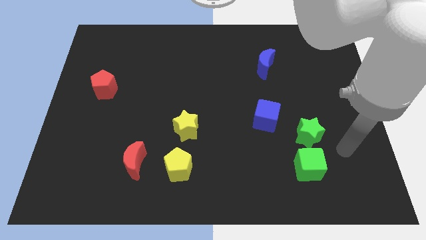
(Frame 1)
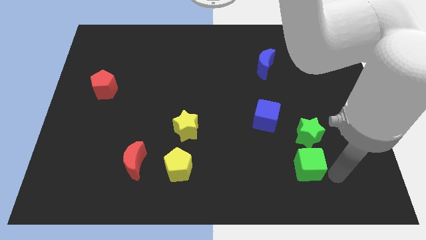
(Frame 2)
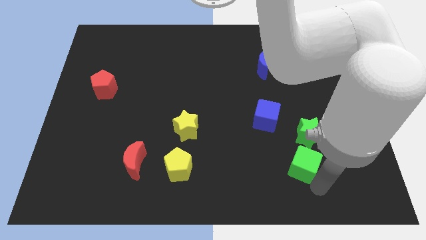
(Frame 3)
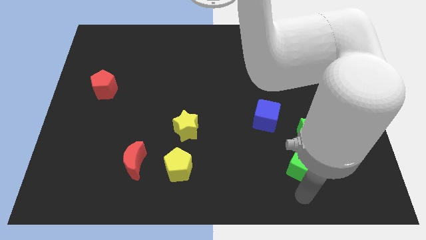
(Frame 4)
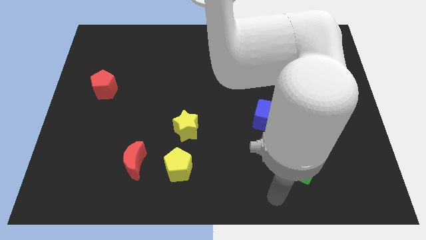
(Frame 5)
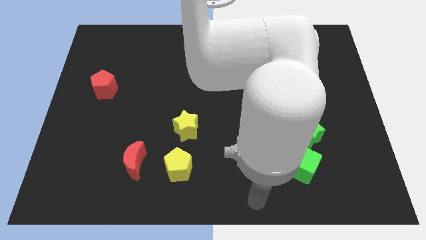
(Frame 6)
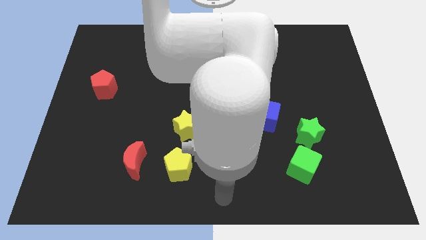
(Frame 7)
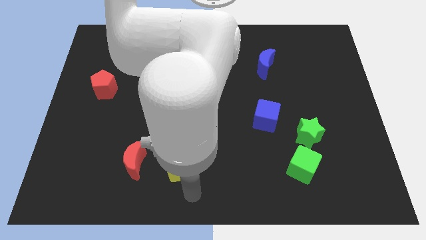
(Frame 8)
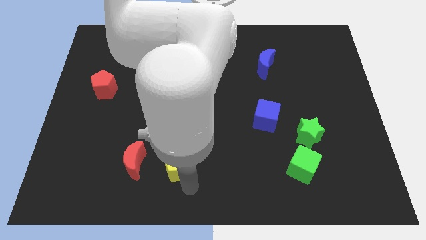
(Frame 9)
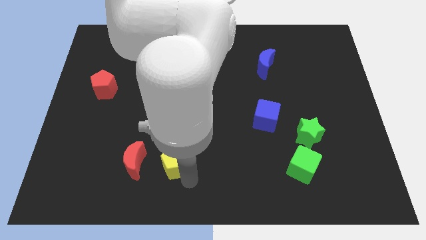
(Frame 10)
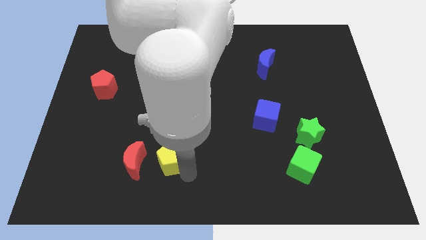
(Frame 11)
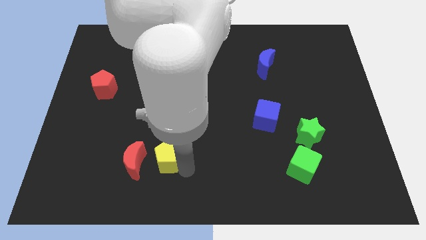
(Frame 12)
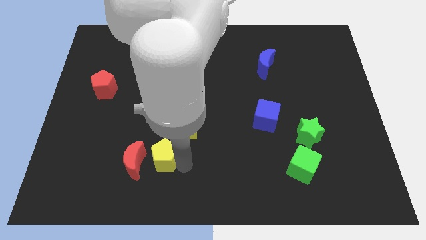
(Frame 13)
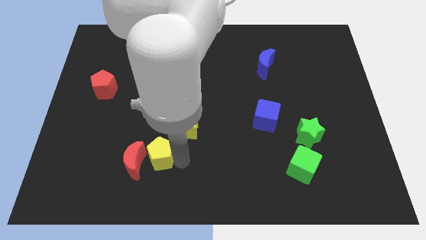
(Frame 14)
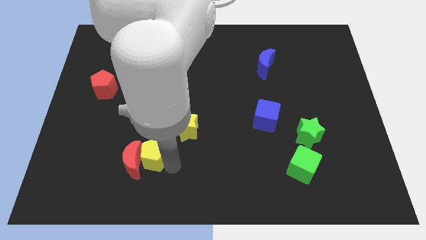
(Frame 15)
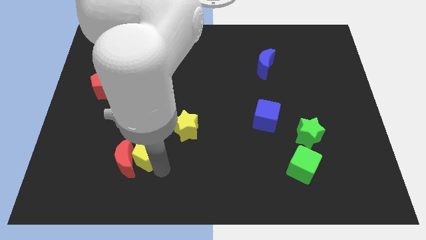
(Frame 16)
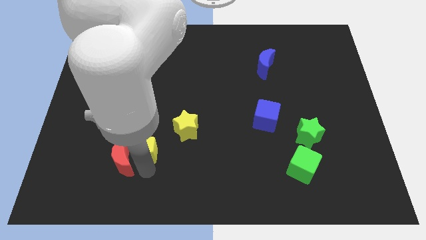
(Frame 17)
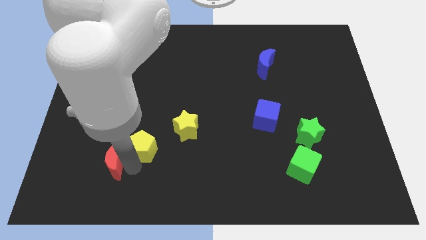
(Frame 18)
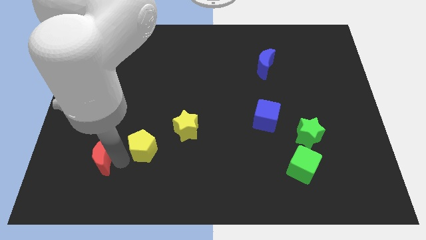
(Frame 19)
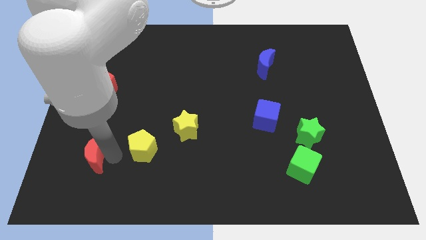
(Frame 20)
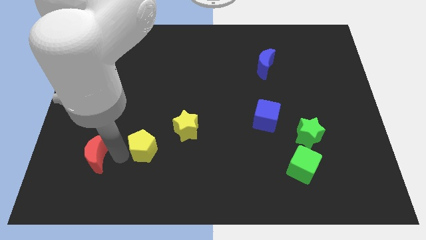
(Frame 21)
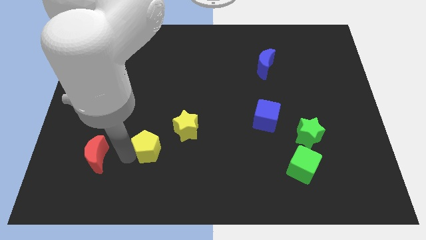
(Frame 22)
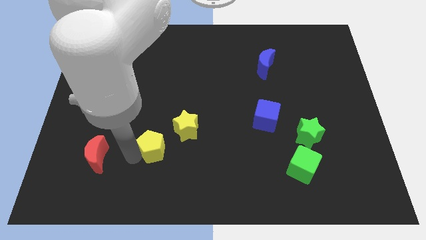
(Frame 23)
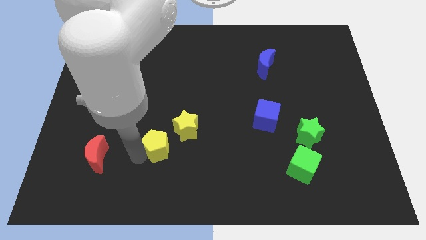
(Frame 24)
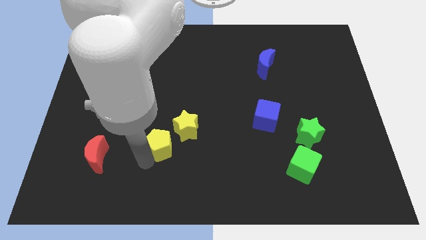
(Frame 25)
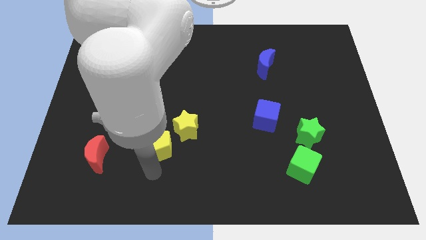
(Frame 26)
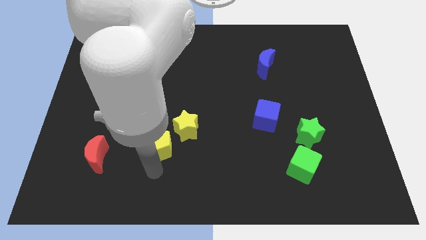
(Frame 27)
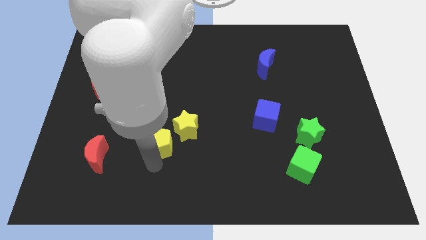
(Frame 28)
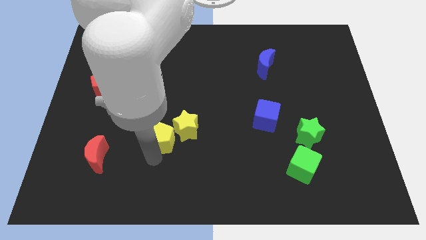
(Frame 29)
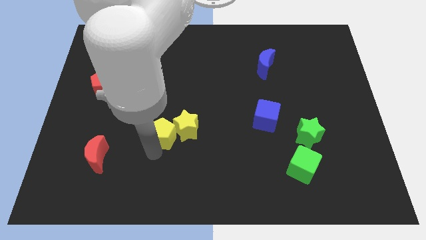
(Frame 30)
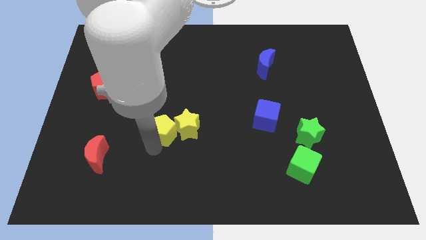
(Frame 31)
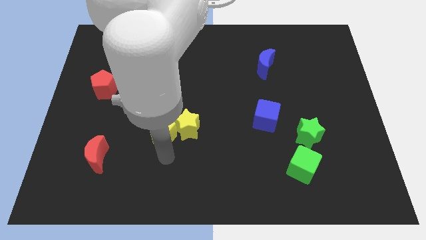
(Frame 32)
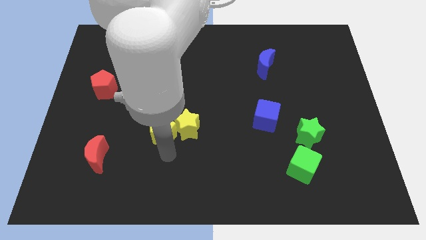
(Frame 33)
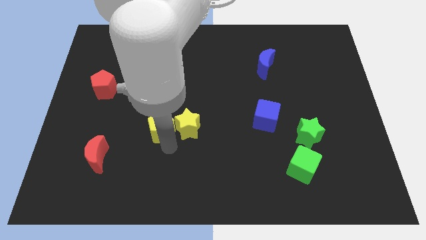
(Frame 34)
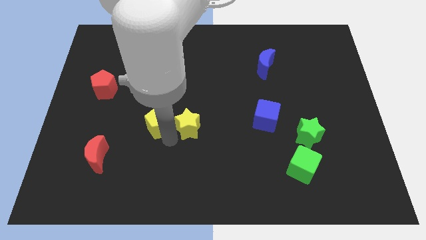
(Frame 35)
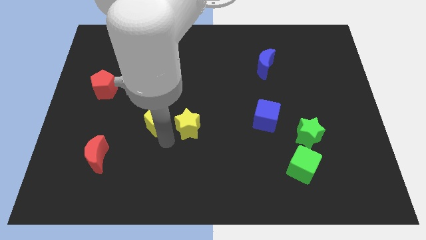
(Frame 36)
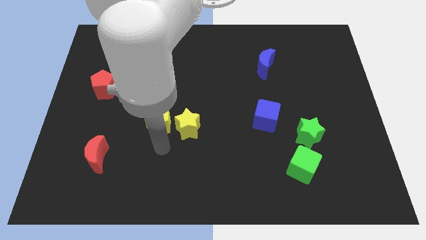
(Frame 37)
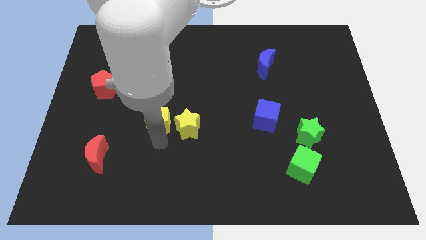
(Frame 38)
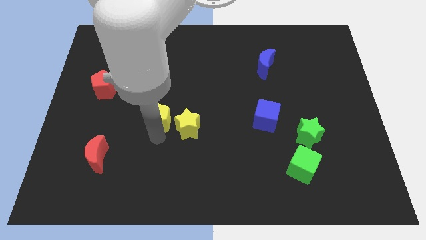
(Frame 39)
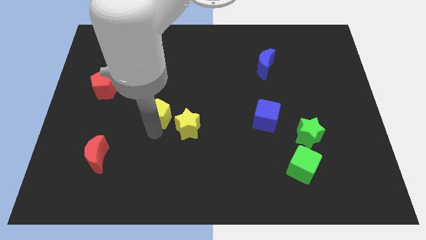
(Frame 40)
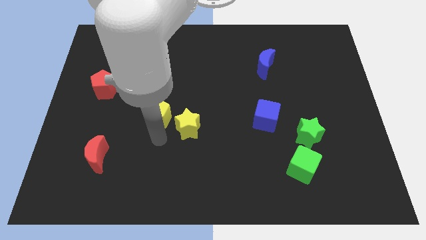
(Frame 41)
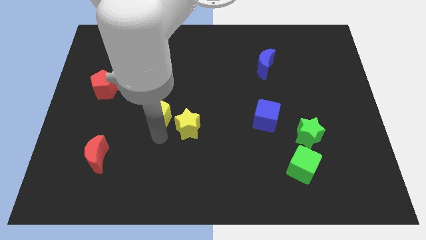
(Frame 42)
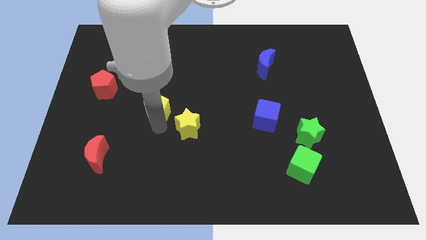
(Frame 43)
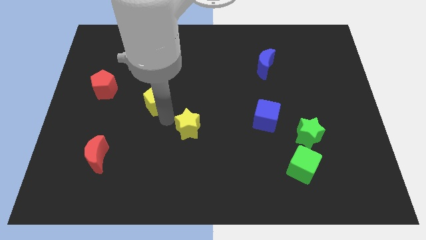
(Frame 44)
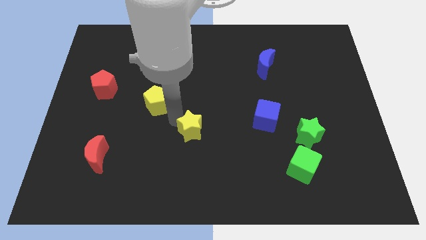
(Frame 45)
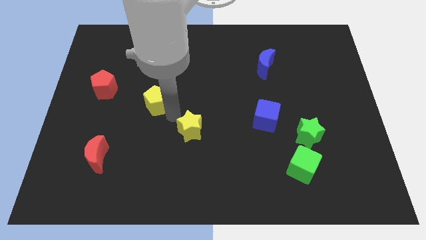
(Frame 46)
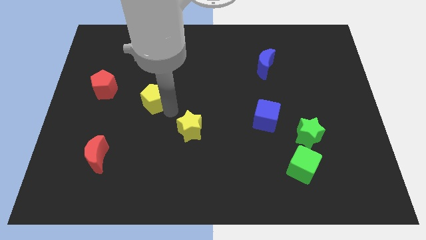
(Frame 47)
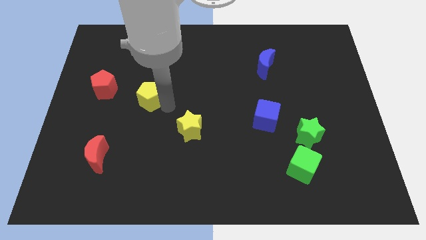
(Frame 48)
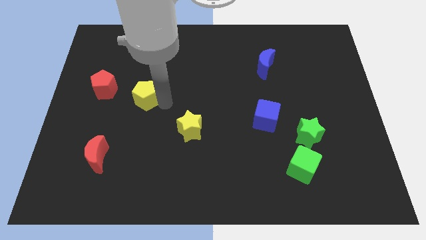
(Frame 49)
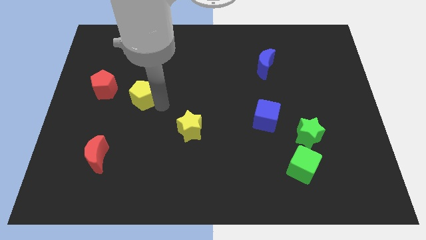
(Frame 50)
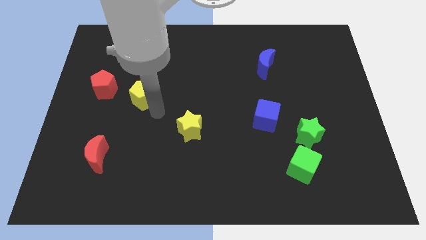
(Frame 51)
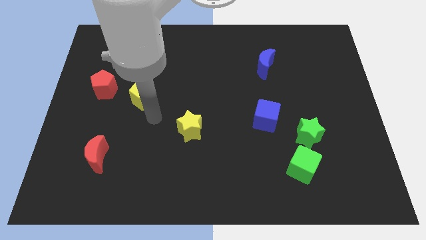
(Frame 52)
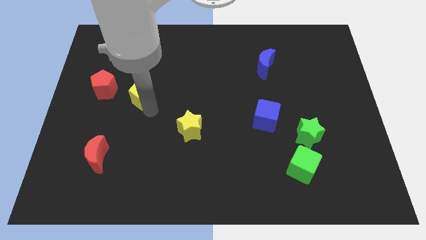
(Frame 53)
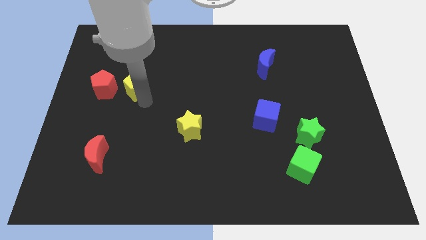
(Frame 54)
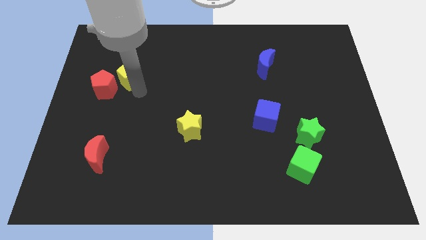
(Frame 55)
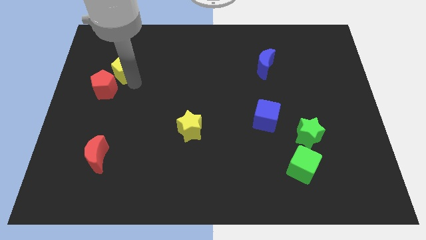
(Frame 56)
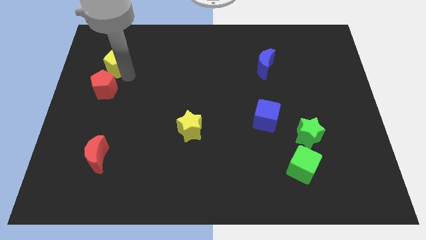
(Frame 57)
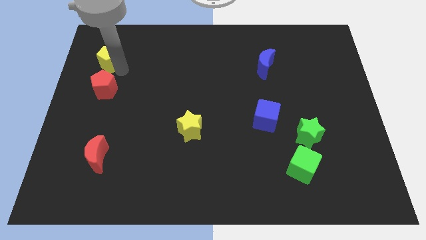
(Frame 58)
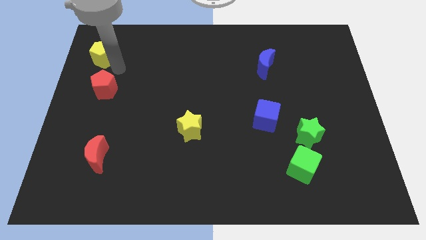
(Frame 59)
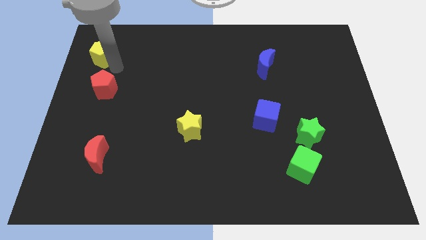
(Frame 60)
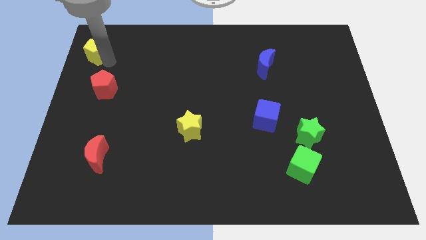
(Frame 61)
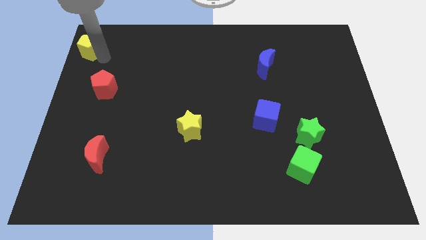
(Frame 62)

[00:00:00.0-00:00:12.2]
push the yellow pentagon to the top left of the board
